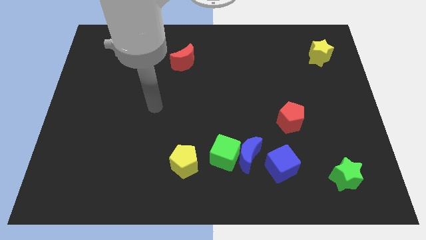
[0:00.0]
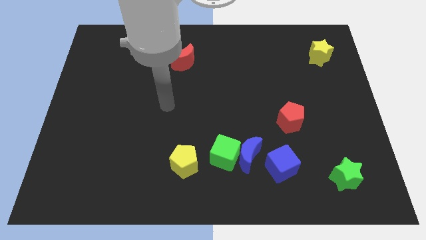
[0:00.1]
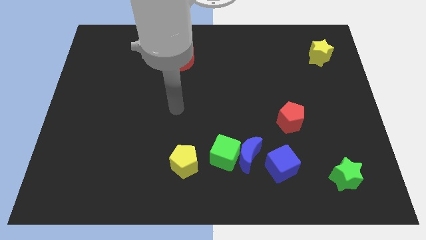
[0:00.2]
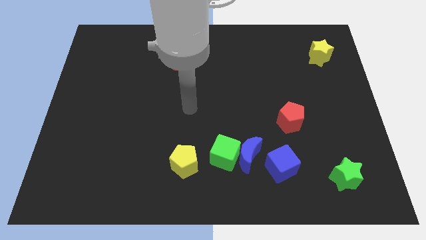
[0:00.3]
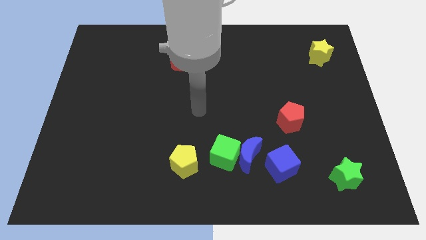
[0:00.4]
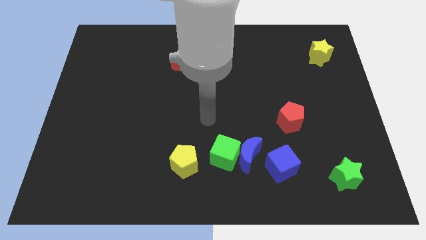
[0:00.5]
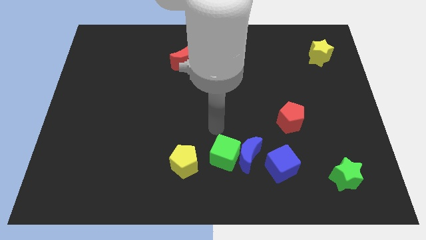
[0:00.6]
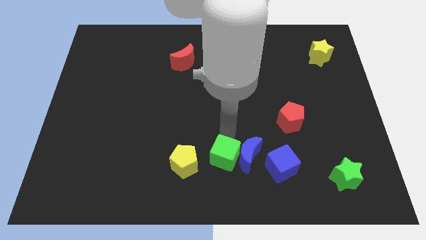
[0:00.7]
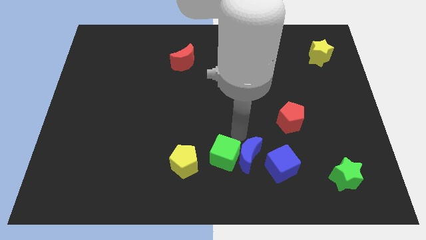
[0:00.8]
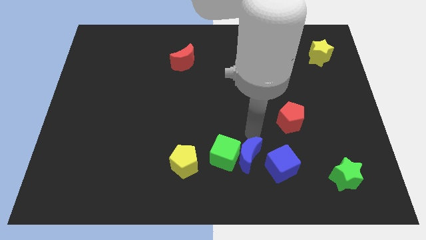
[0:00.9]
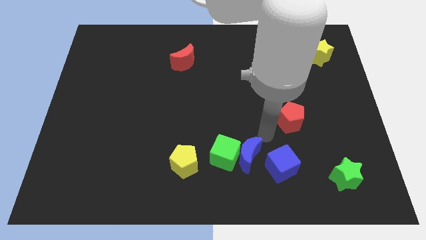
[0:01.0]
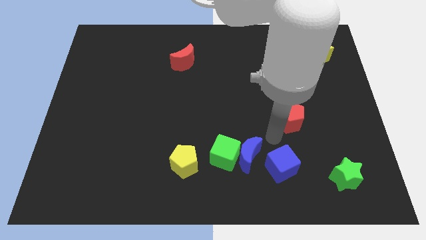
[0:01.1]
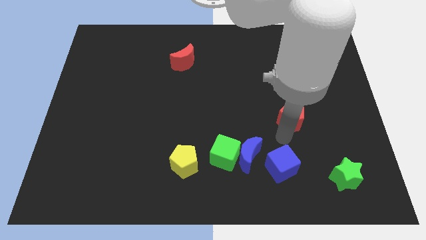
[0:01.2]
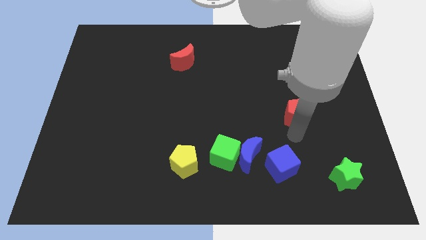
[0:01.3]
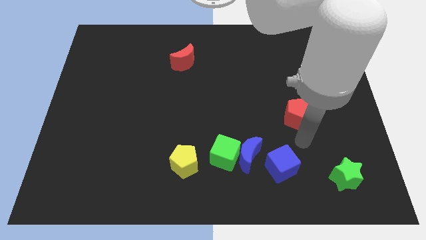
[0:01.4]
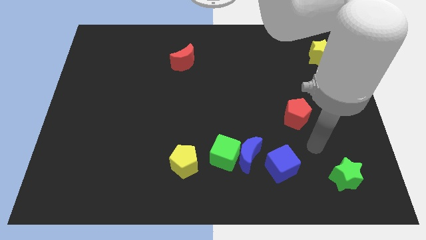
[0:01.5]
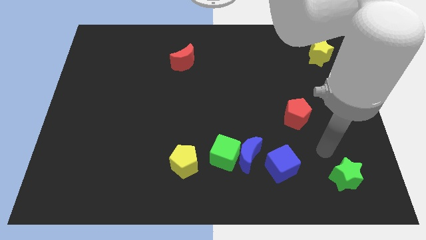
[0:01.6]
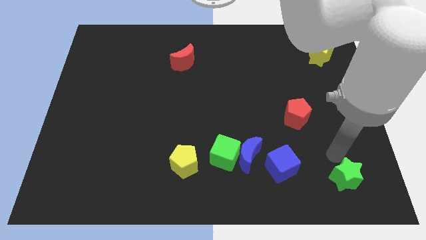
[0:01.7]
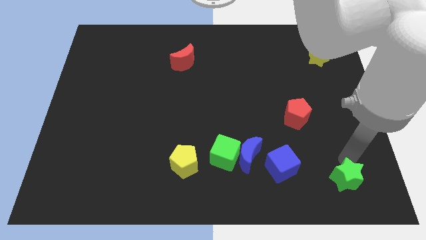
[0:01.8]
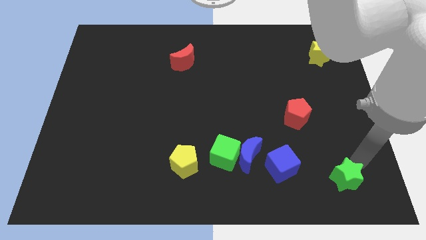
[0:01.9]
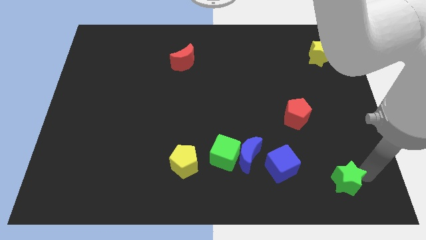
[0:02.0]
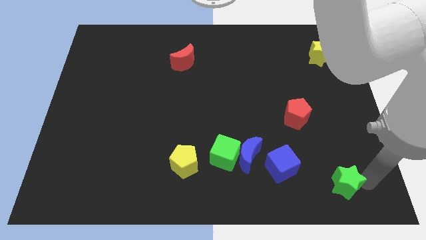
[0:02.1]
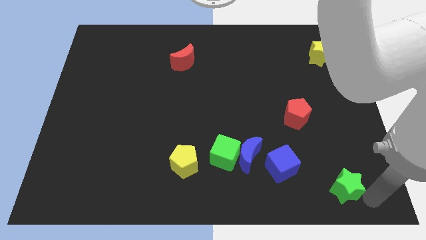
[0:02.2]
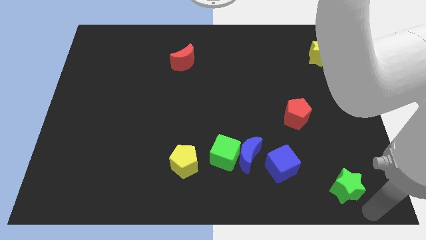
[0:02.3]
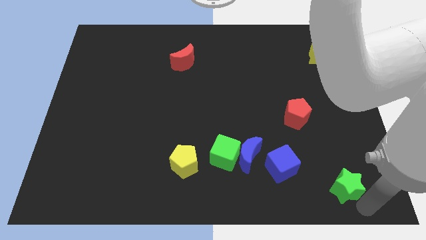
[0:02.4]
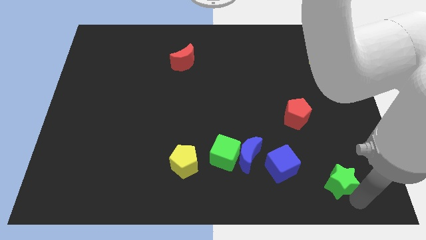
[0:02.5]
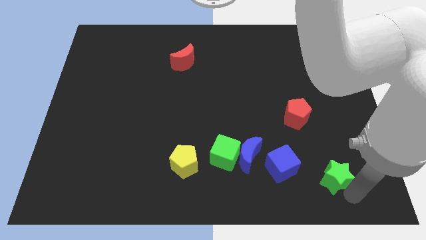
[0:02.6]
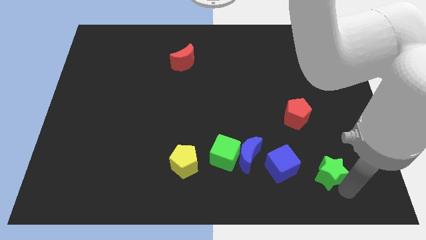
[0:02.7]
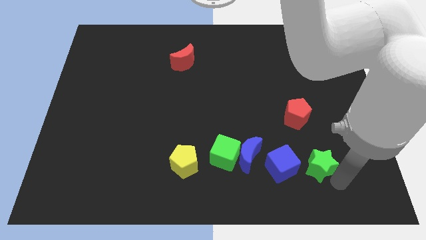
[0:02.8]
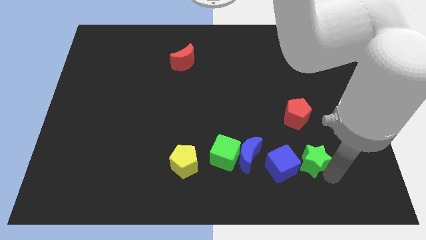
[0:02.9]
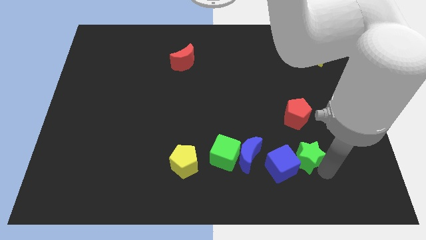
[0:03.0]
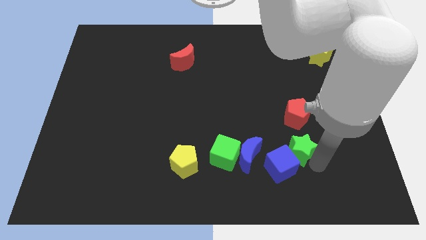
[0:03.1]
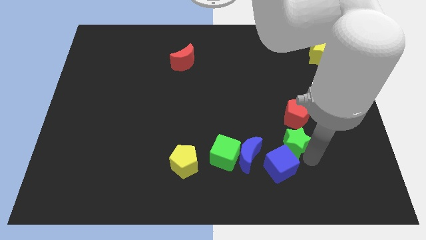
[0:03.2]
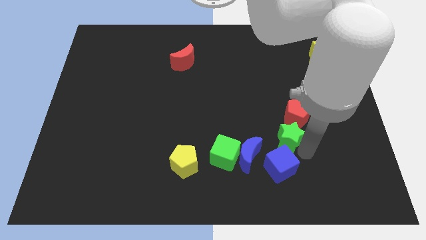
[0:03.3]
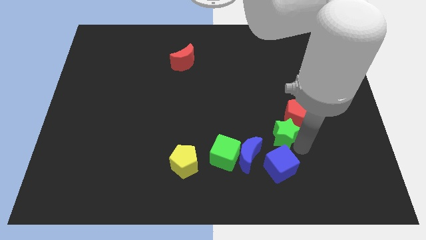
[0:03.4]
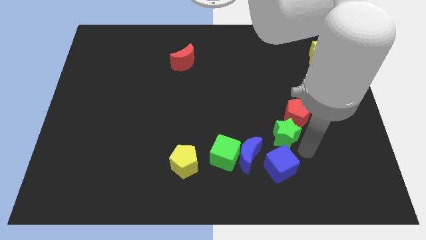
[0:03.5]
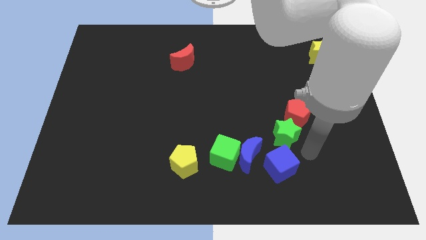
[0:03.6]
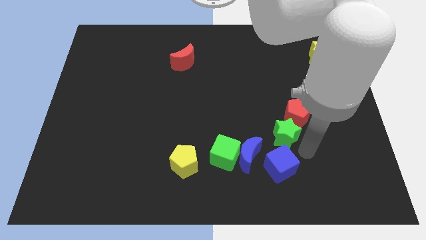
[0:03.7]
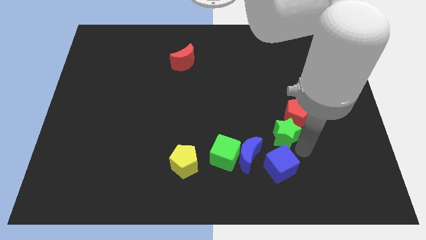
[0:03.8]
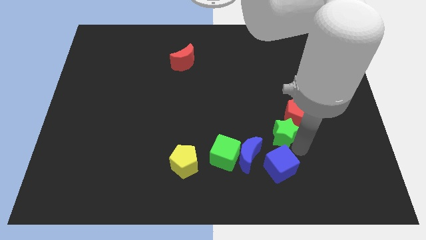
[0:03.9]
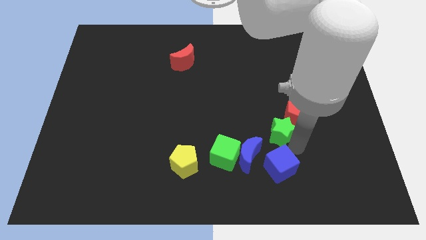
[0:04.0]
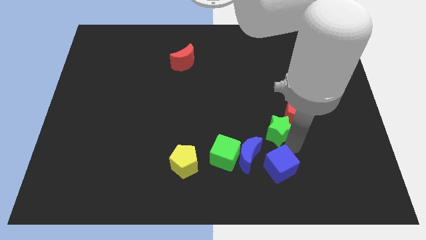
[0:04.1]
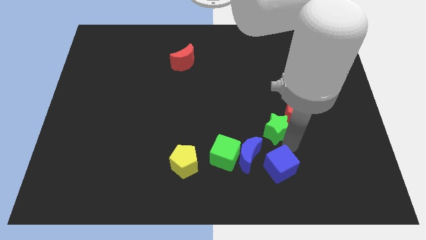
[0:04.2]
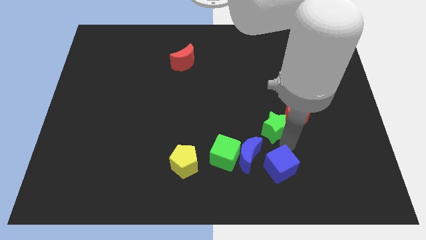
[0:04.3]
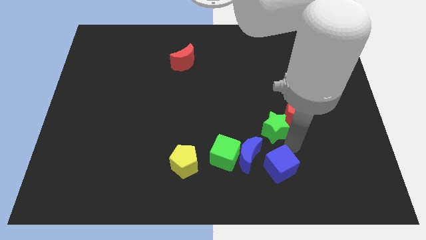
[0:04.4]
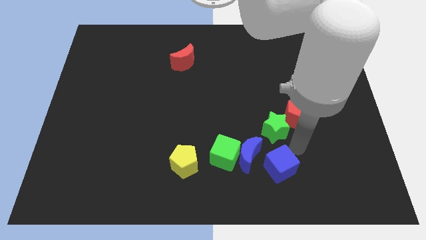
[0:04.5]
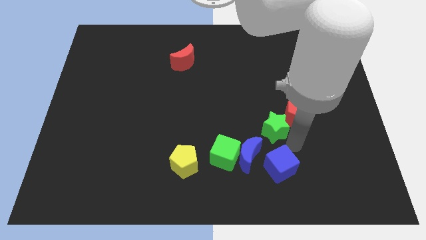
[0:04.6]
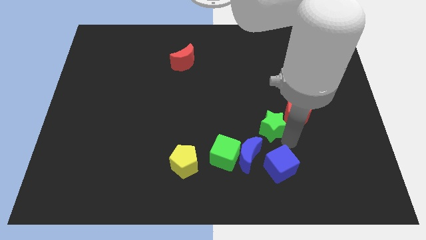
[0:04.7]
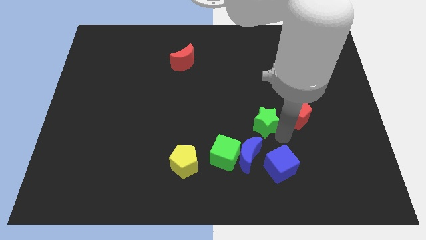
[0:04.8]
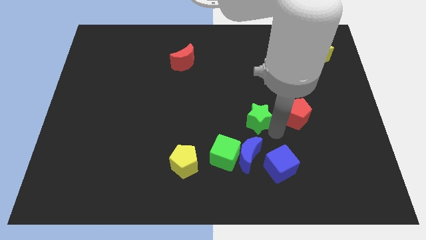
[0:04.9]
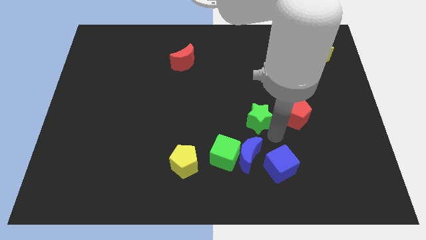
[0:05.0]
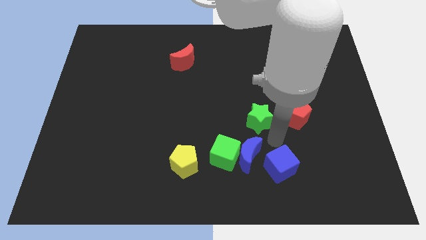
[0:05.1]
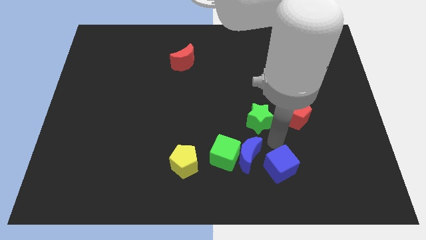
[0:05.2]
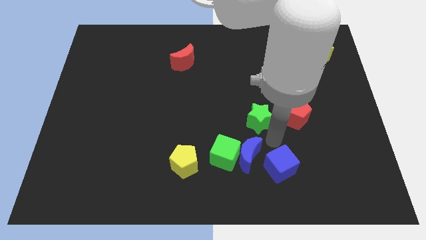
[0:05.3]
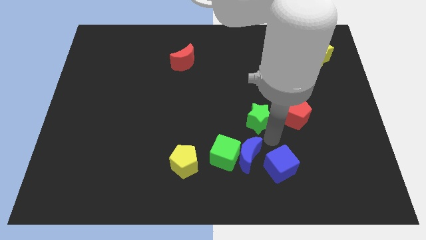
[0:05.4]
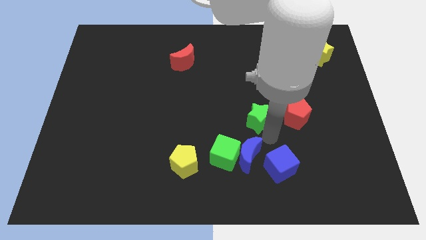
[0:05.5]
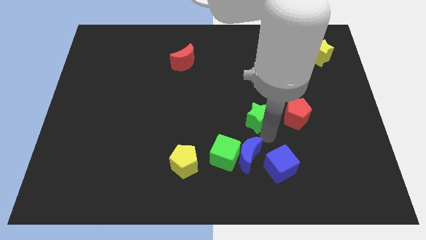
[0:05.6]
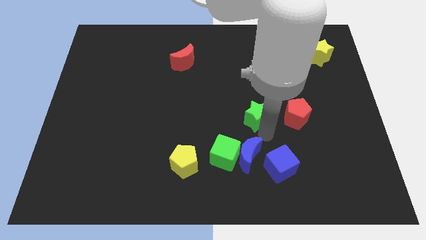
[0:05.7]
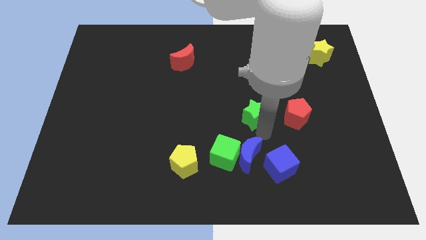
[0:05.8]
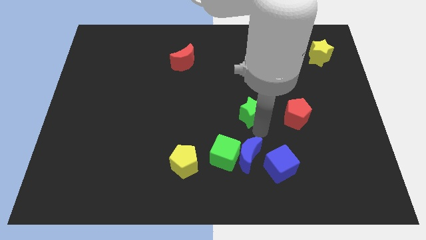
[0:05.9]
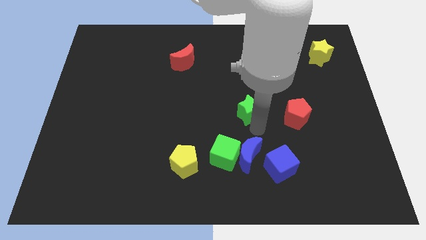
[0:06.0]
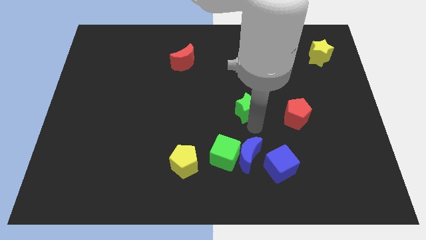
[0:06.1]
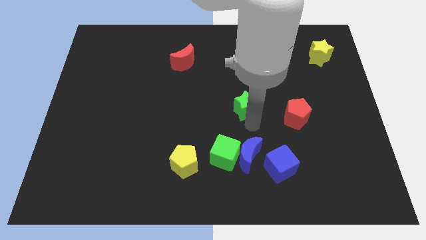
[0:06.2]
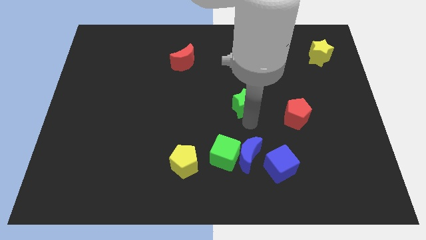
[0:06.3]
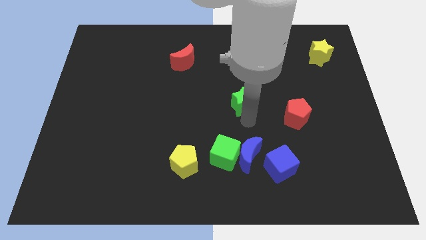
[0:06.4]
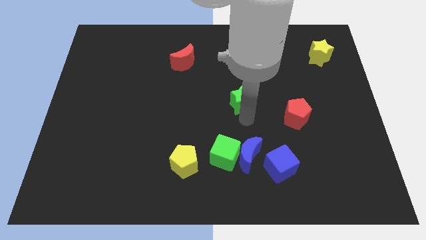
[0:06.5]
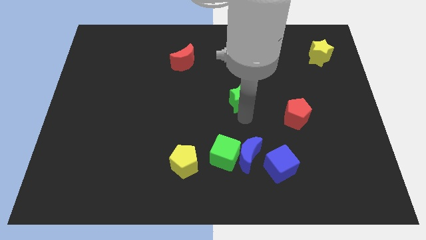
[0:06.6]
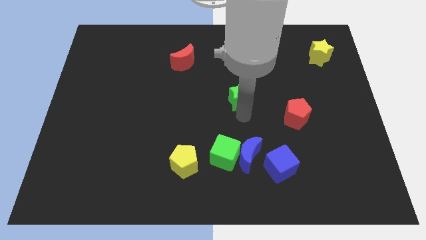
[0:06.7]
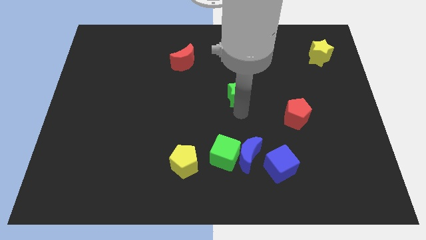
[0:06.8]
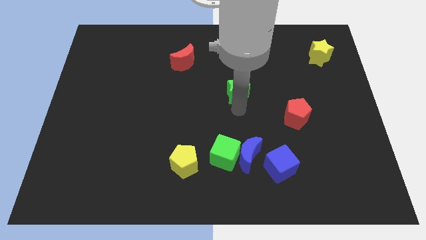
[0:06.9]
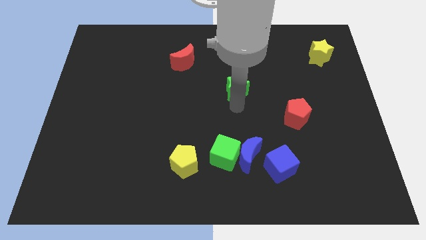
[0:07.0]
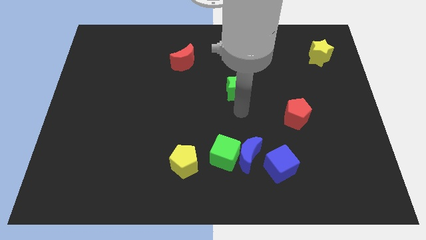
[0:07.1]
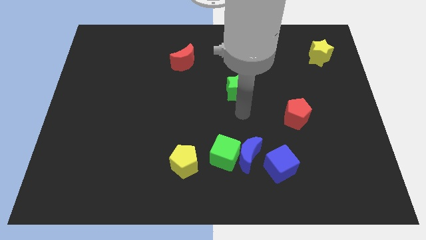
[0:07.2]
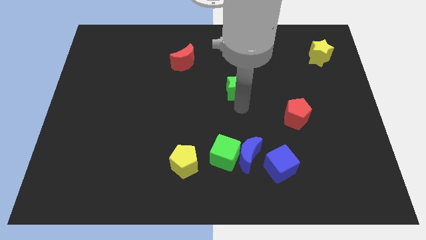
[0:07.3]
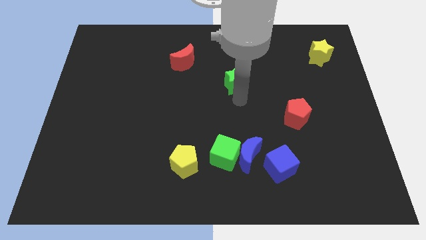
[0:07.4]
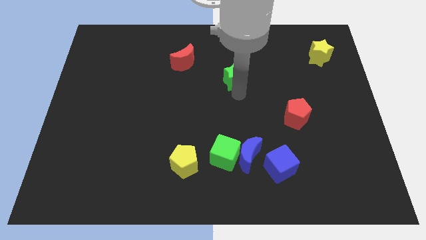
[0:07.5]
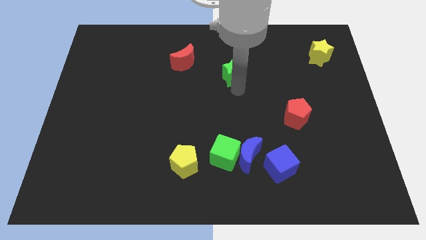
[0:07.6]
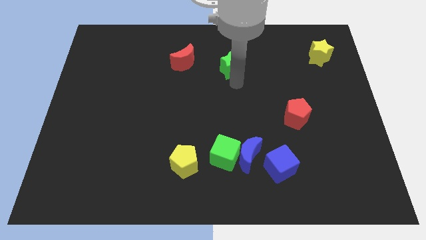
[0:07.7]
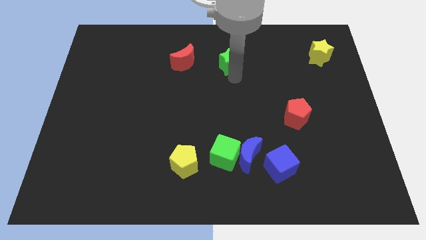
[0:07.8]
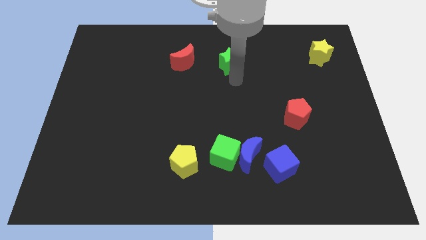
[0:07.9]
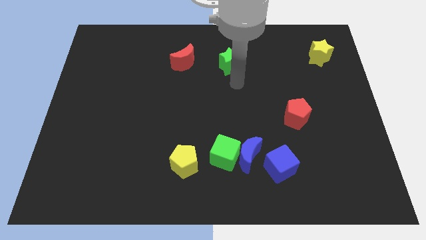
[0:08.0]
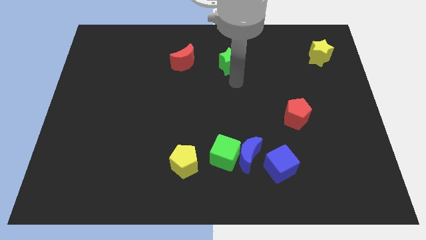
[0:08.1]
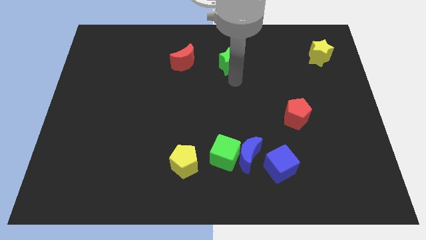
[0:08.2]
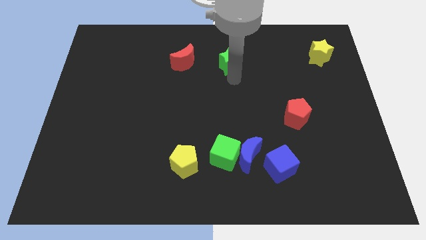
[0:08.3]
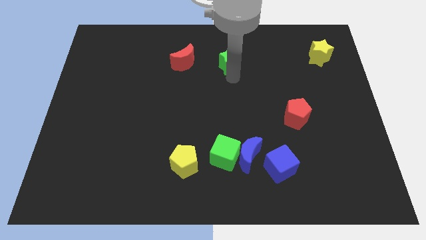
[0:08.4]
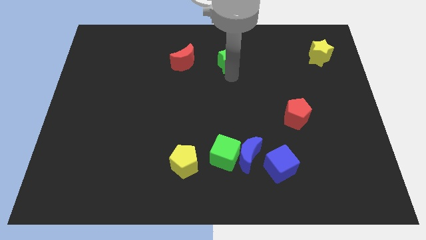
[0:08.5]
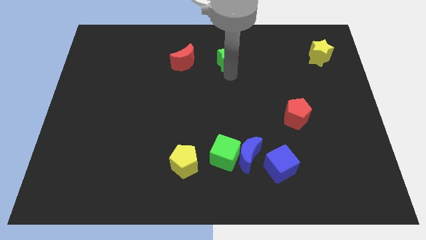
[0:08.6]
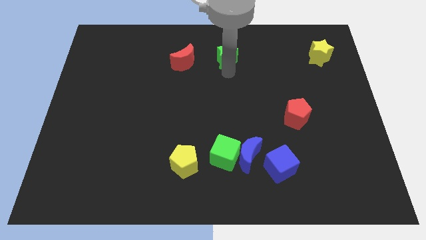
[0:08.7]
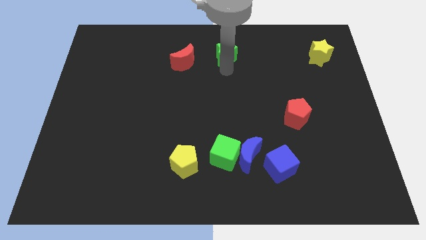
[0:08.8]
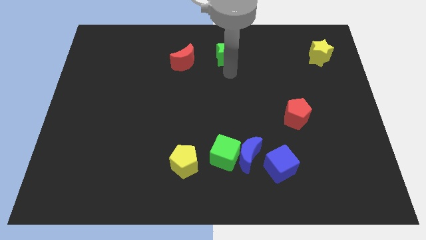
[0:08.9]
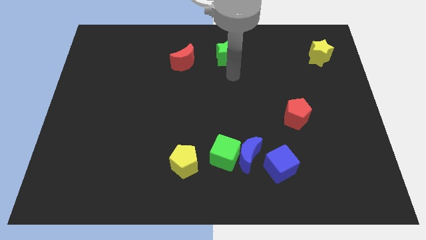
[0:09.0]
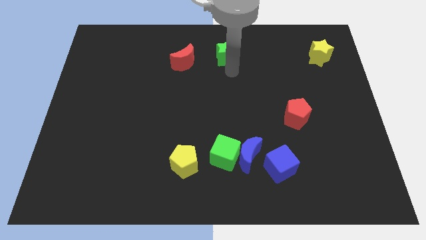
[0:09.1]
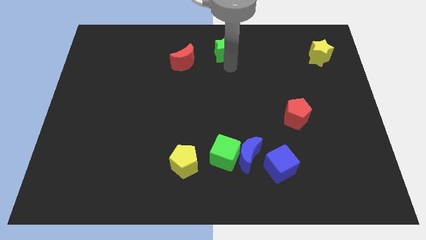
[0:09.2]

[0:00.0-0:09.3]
slide the green star to the towards your base
